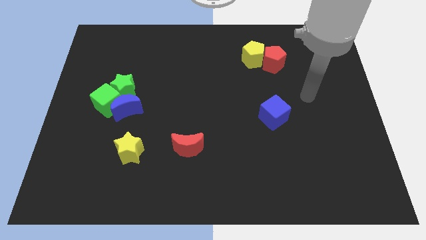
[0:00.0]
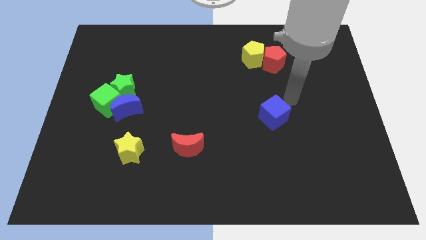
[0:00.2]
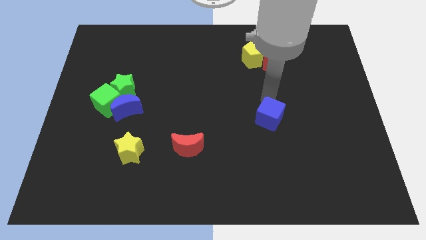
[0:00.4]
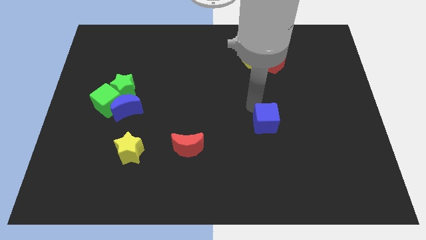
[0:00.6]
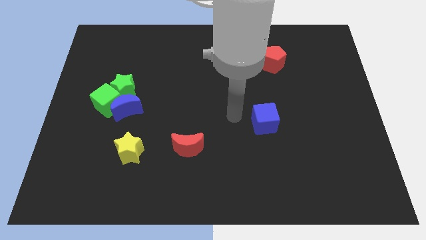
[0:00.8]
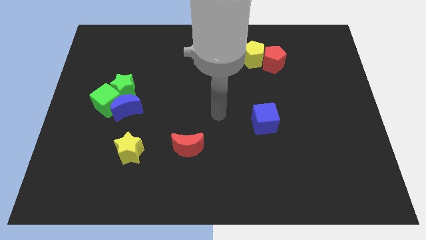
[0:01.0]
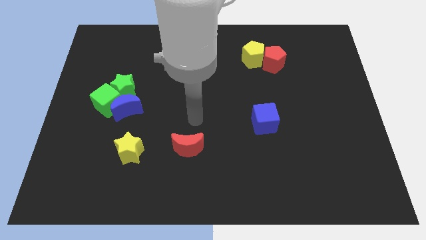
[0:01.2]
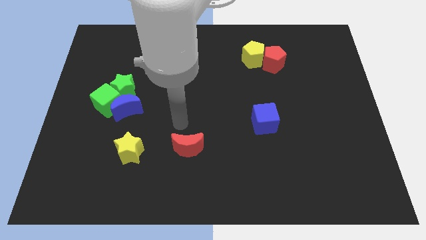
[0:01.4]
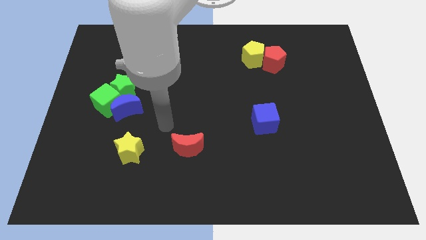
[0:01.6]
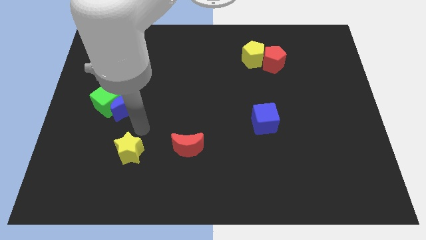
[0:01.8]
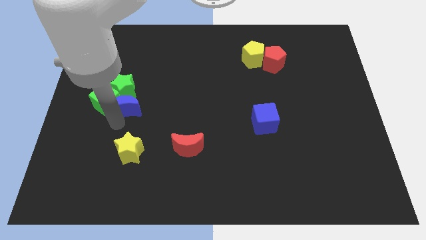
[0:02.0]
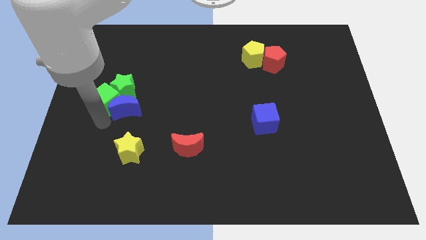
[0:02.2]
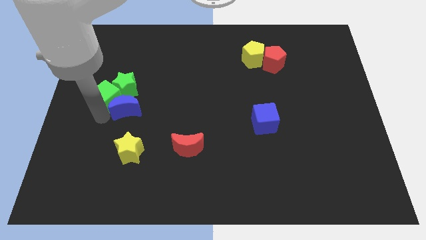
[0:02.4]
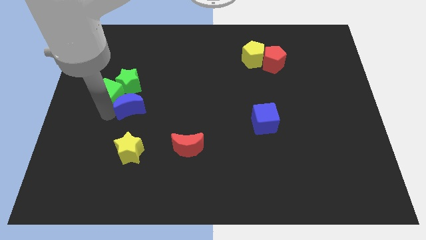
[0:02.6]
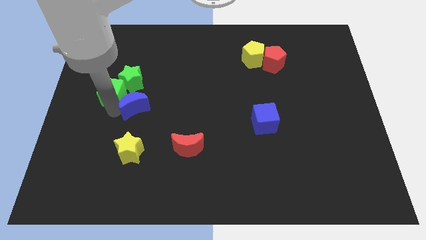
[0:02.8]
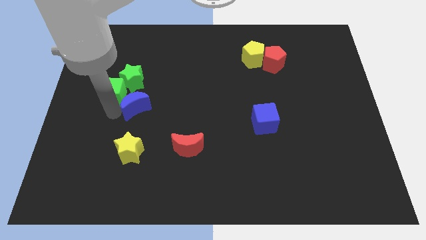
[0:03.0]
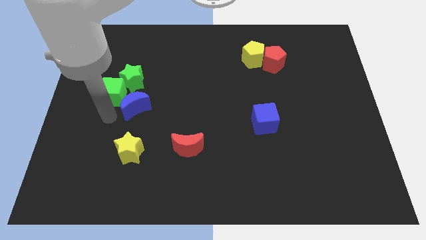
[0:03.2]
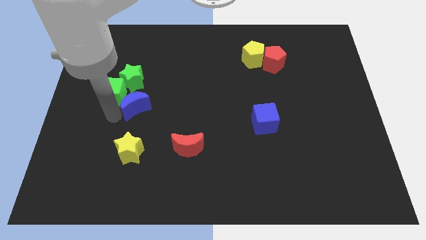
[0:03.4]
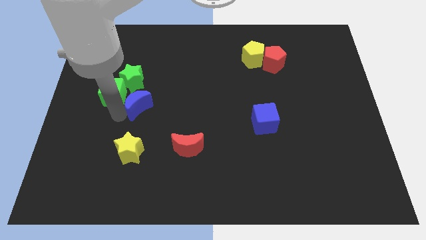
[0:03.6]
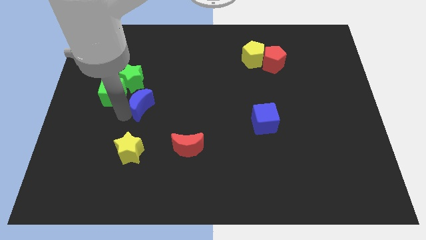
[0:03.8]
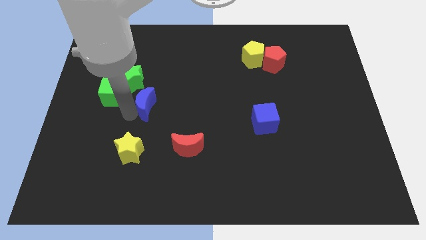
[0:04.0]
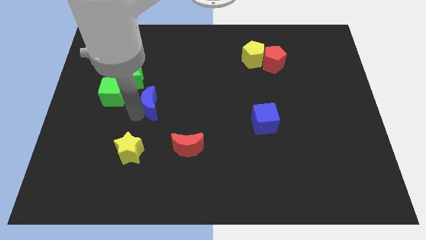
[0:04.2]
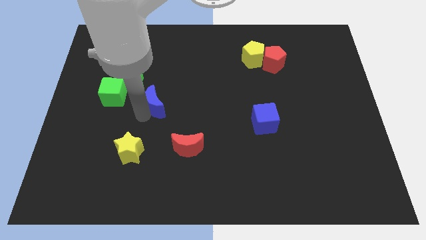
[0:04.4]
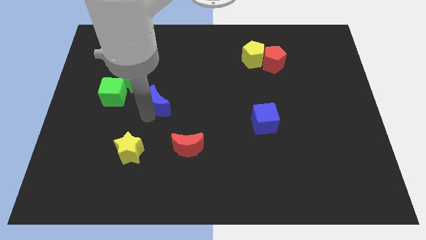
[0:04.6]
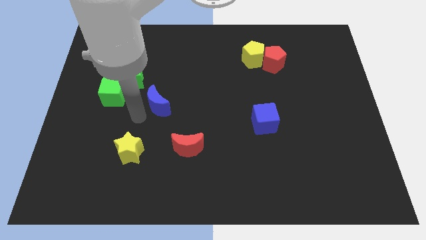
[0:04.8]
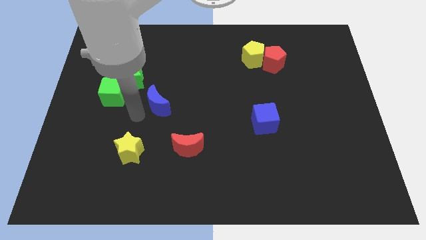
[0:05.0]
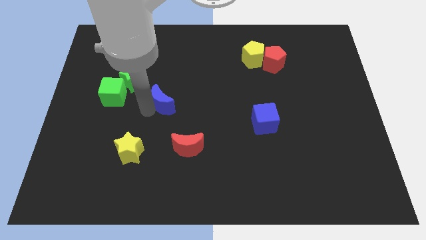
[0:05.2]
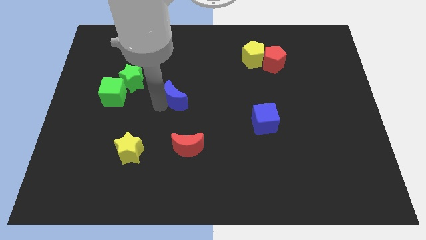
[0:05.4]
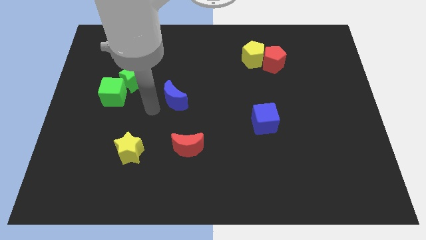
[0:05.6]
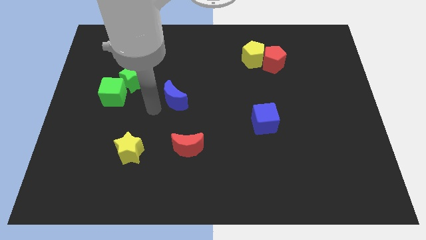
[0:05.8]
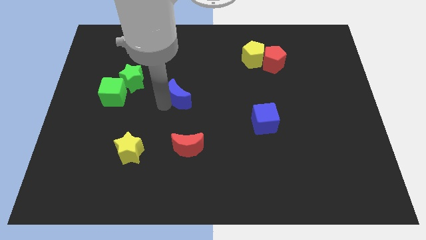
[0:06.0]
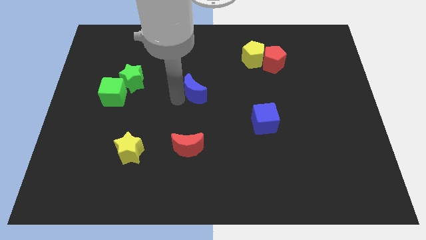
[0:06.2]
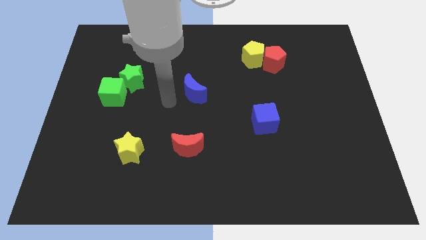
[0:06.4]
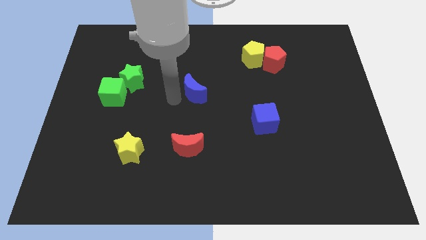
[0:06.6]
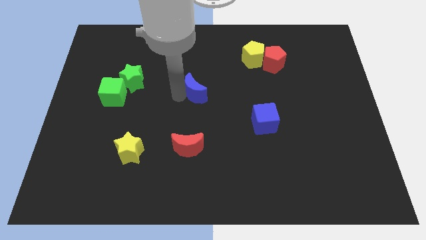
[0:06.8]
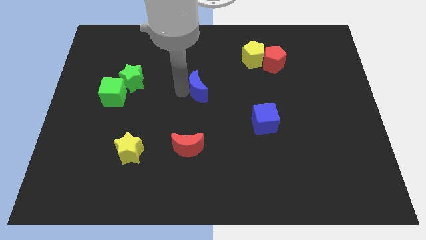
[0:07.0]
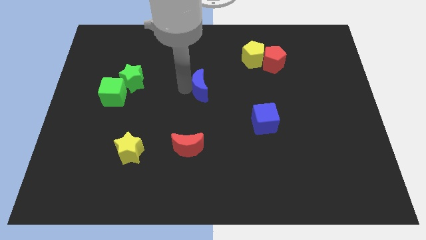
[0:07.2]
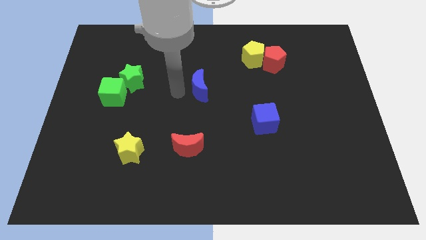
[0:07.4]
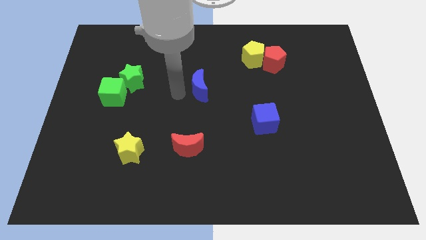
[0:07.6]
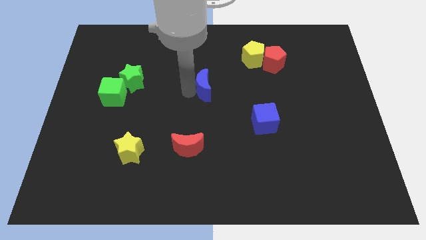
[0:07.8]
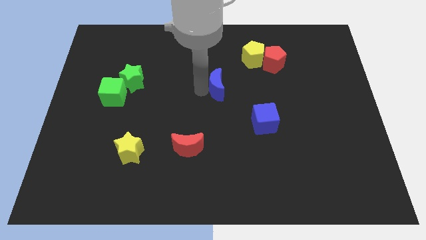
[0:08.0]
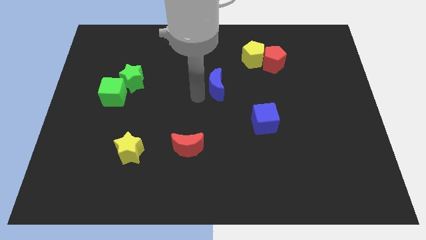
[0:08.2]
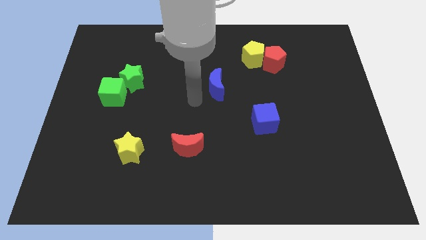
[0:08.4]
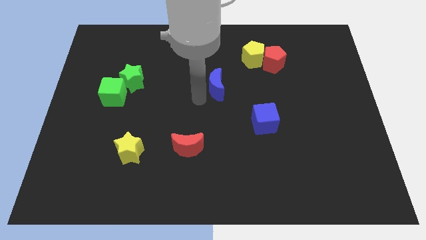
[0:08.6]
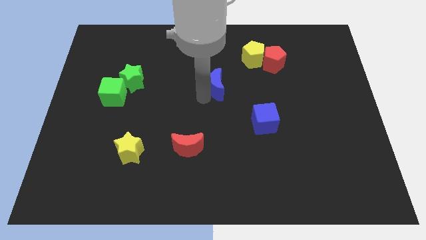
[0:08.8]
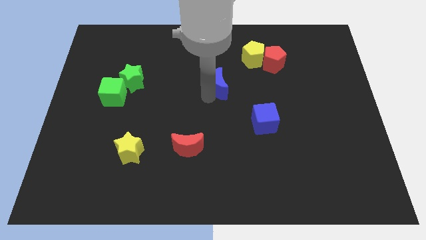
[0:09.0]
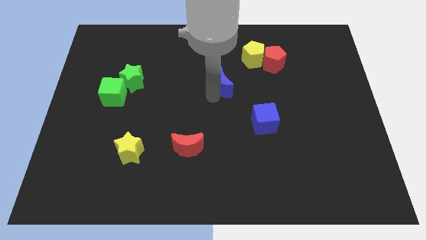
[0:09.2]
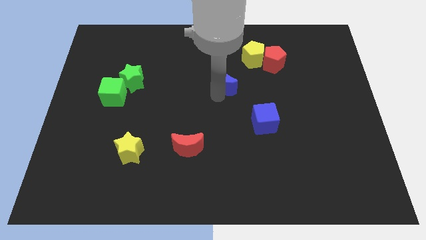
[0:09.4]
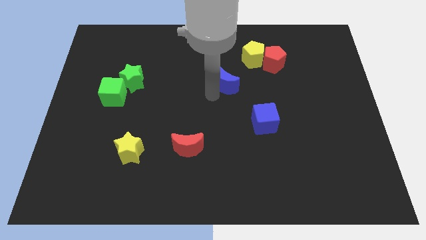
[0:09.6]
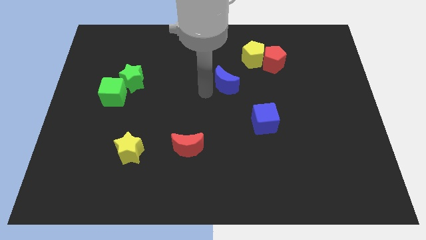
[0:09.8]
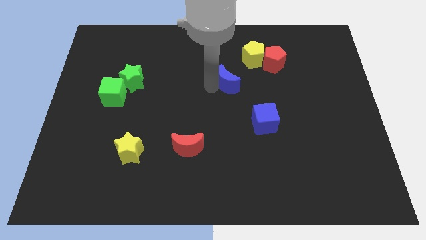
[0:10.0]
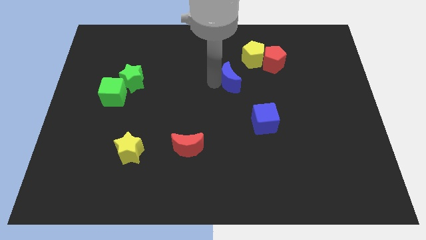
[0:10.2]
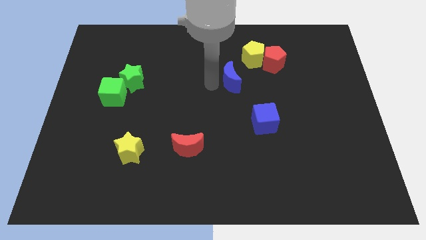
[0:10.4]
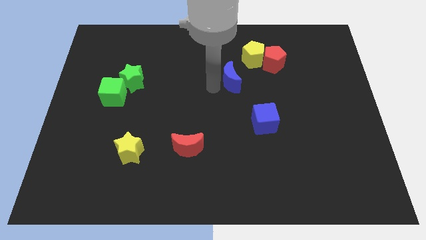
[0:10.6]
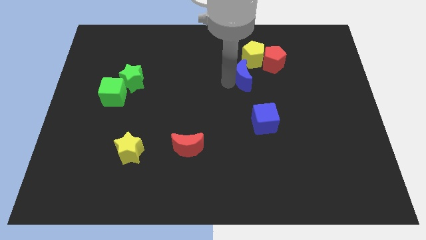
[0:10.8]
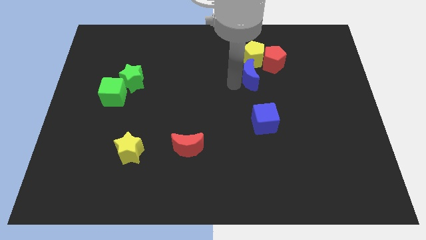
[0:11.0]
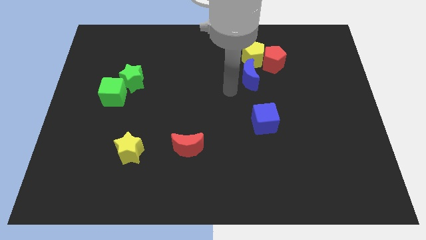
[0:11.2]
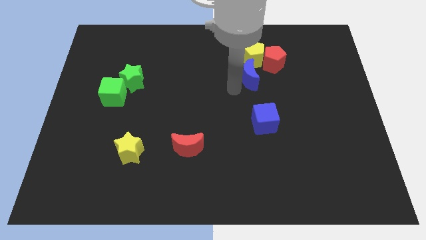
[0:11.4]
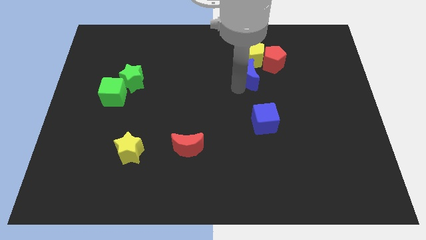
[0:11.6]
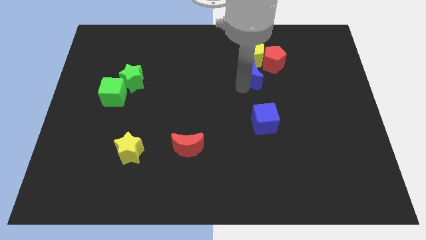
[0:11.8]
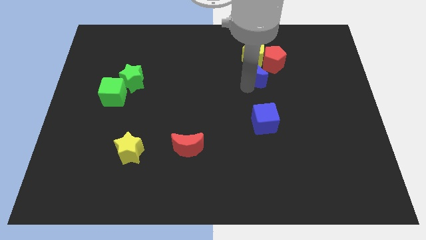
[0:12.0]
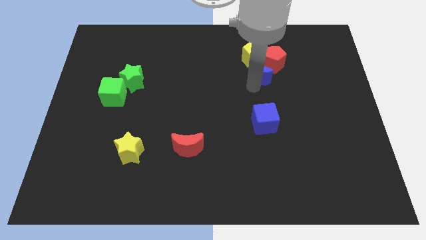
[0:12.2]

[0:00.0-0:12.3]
slide the blue moon towards the red pentagon

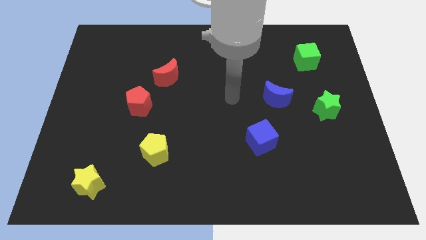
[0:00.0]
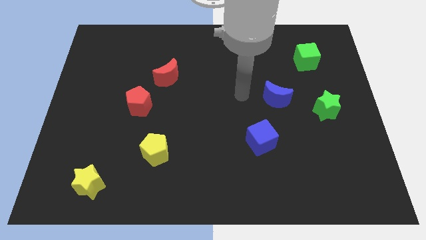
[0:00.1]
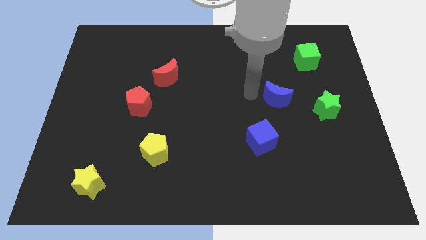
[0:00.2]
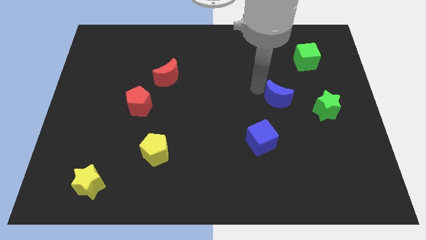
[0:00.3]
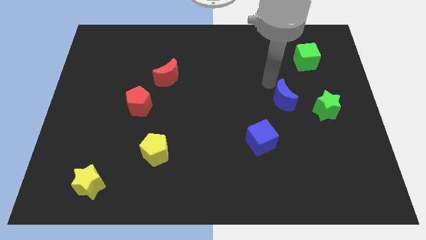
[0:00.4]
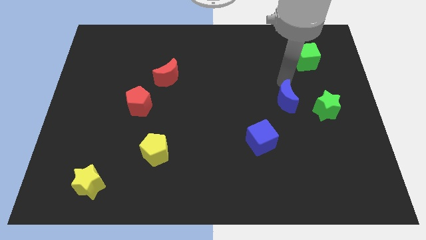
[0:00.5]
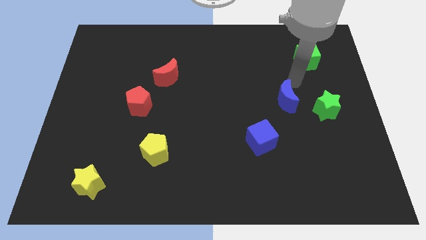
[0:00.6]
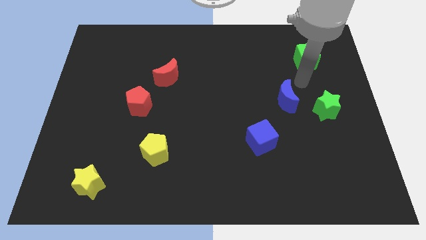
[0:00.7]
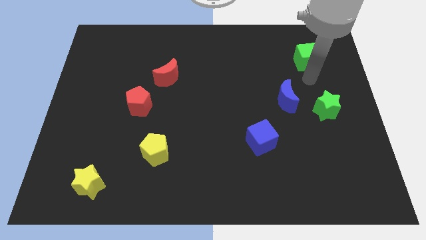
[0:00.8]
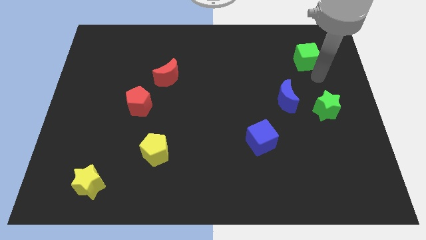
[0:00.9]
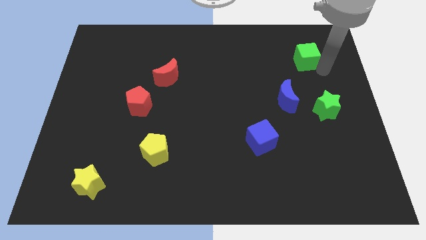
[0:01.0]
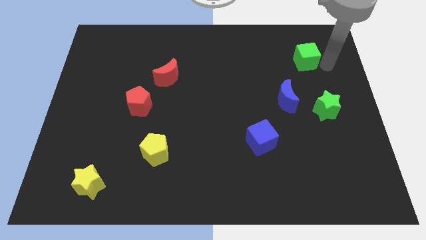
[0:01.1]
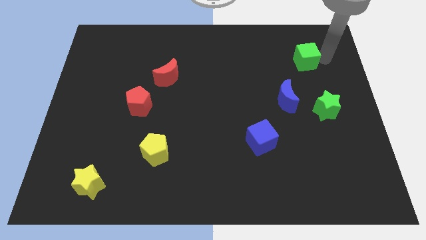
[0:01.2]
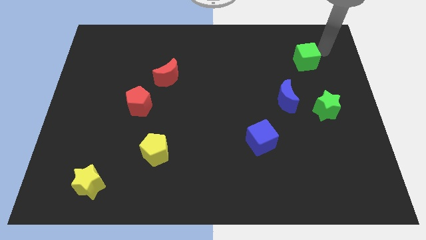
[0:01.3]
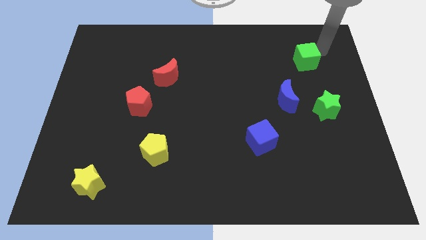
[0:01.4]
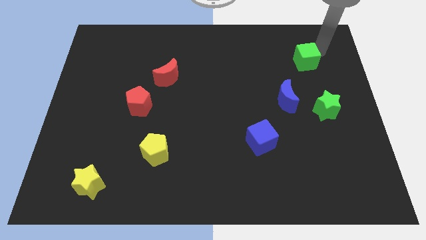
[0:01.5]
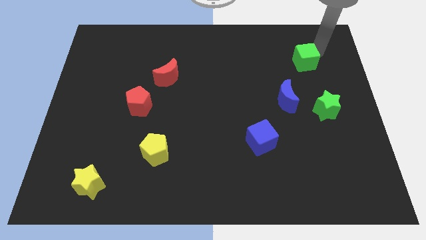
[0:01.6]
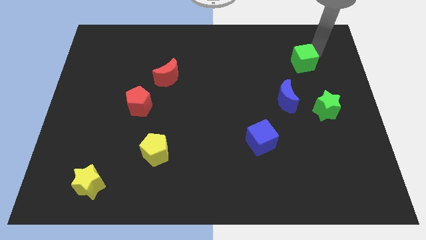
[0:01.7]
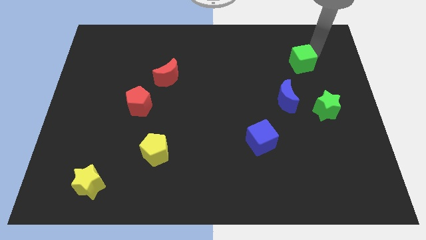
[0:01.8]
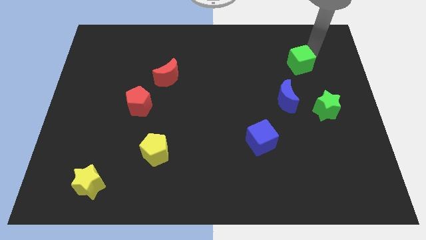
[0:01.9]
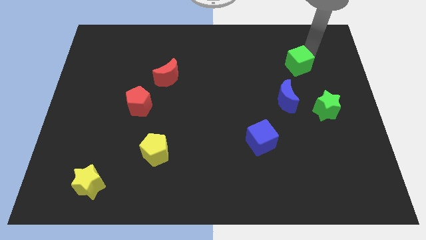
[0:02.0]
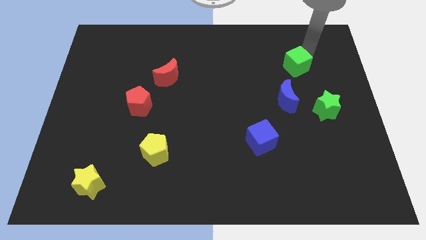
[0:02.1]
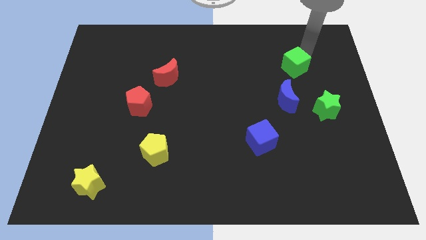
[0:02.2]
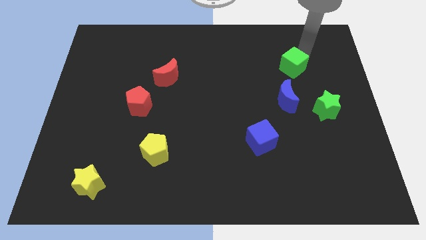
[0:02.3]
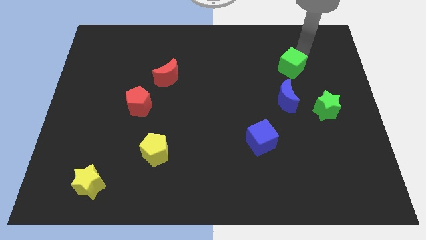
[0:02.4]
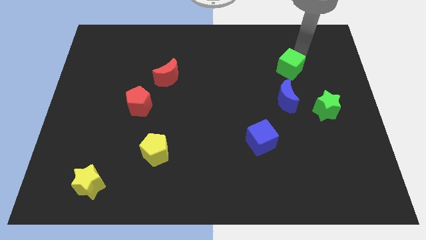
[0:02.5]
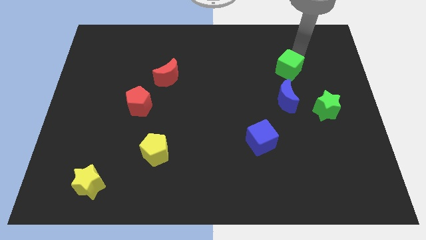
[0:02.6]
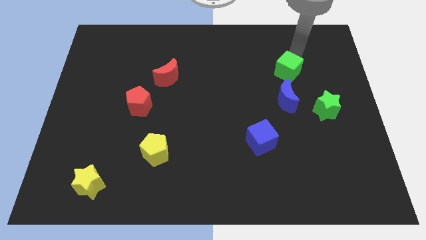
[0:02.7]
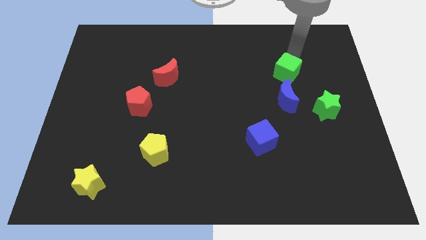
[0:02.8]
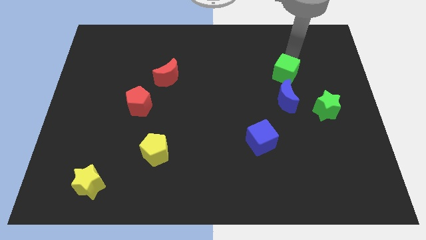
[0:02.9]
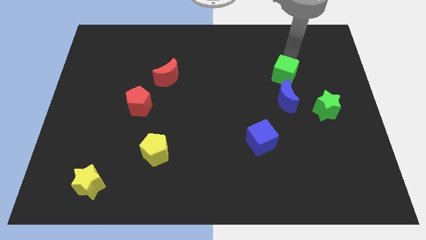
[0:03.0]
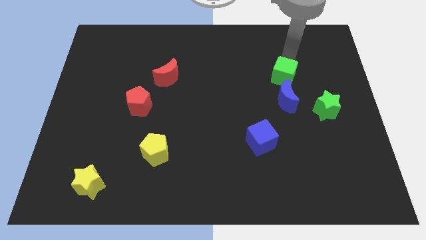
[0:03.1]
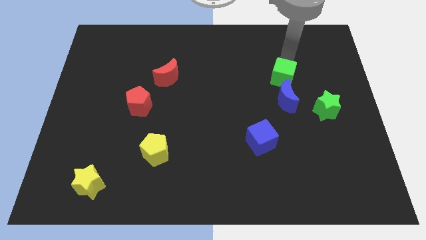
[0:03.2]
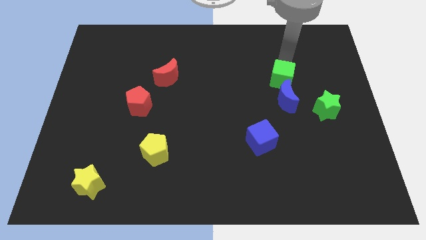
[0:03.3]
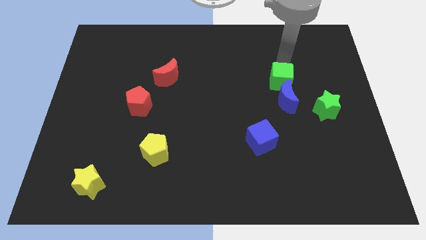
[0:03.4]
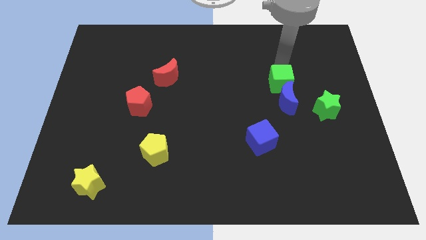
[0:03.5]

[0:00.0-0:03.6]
move the green cube towards the blue moon
